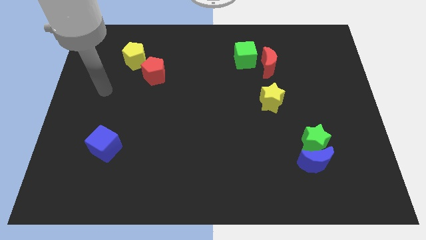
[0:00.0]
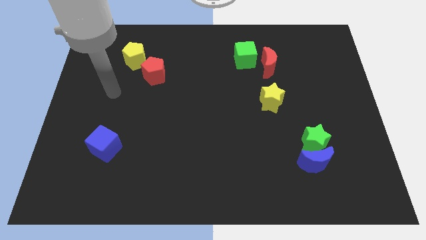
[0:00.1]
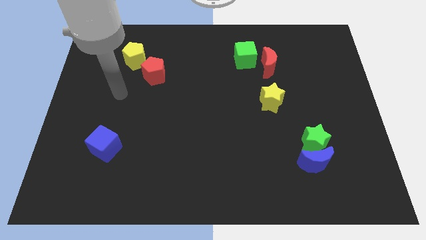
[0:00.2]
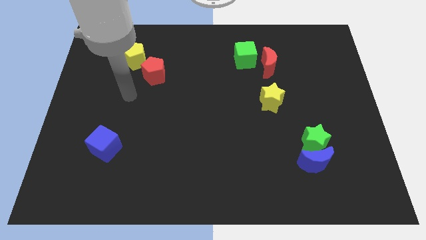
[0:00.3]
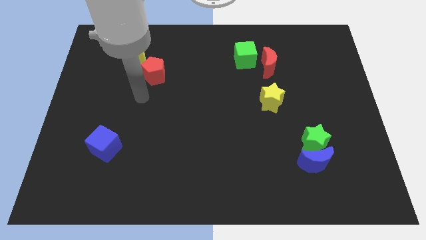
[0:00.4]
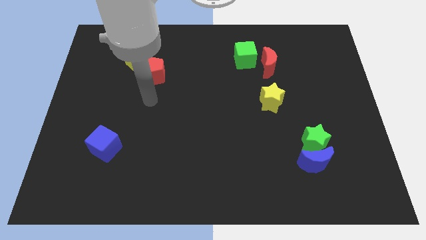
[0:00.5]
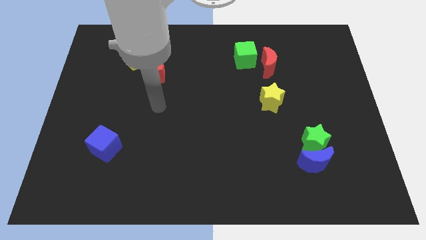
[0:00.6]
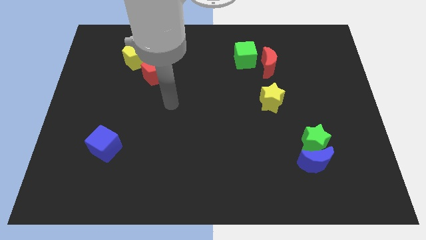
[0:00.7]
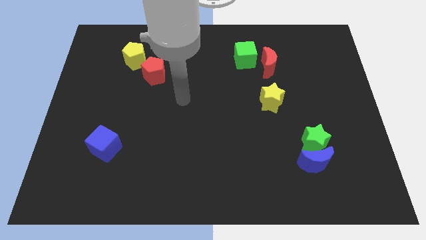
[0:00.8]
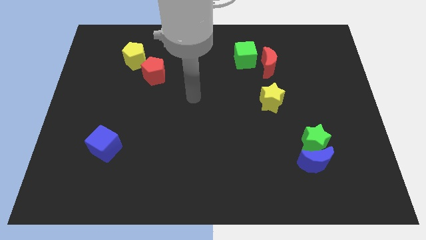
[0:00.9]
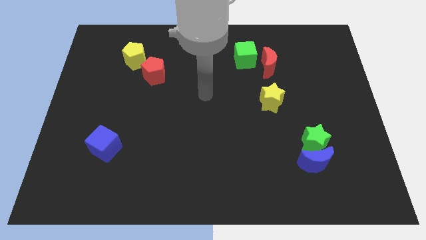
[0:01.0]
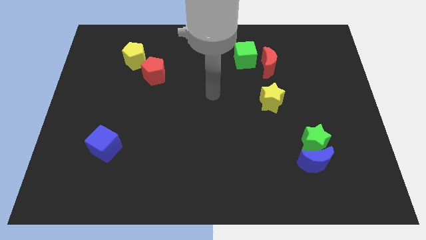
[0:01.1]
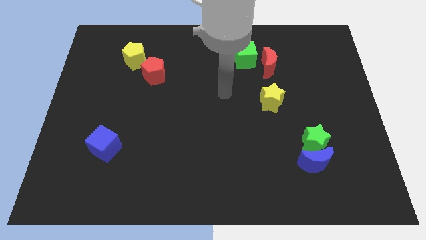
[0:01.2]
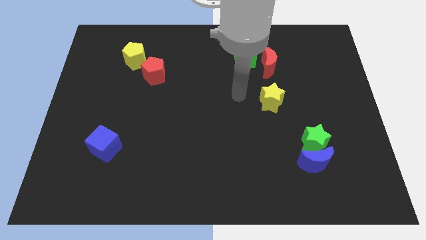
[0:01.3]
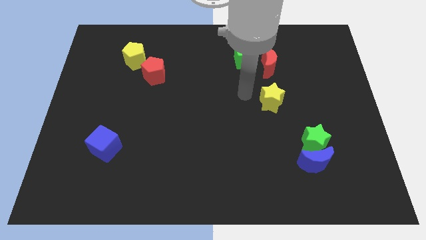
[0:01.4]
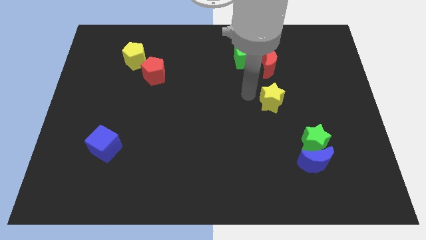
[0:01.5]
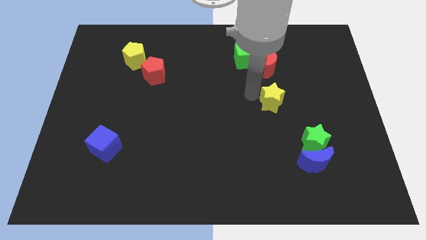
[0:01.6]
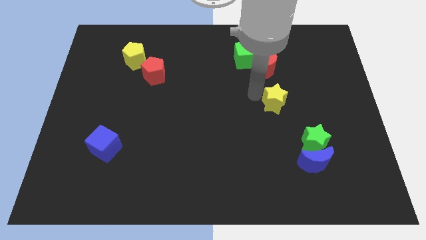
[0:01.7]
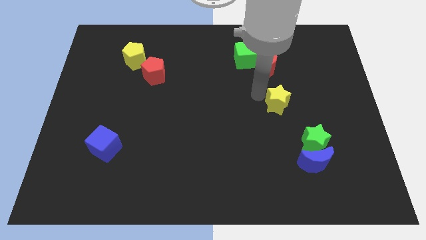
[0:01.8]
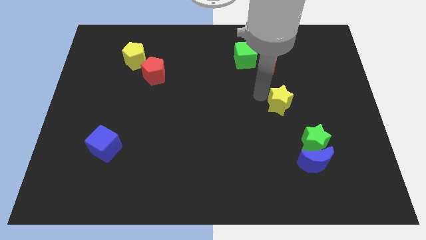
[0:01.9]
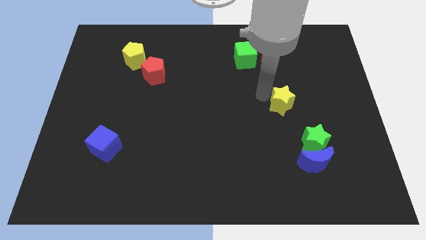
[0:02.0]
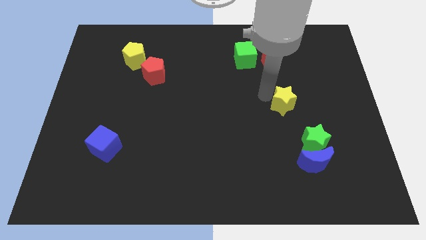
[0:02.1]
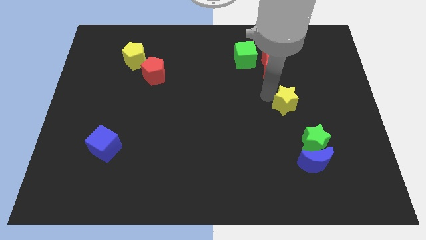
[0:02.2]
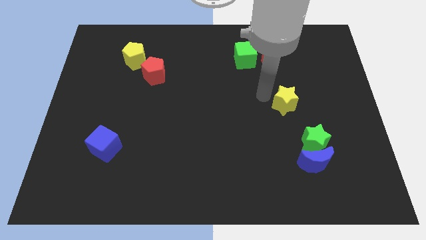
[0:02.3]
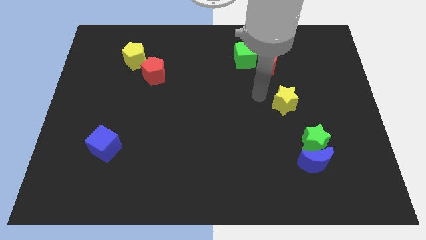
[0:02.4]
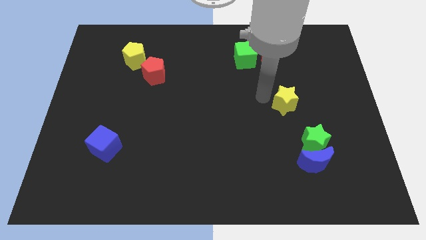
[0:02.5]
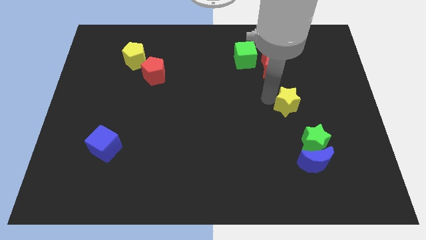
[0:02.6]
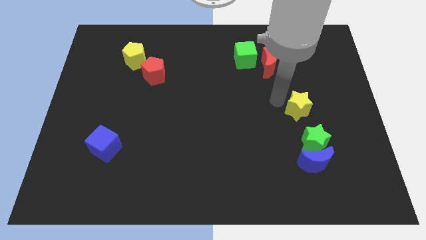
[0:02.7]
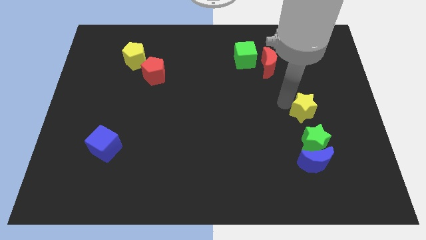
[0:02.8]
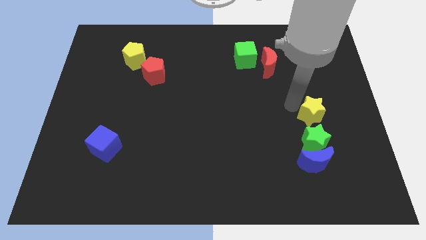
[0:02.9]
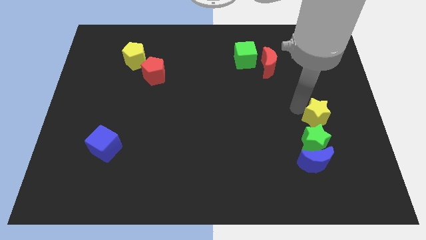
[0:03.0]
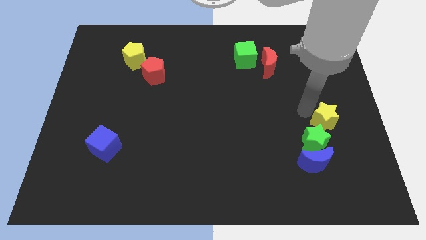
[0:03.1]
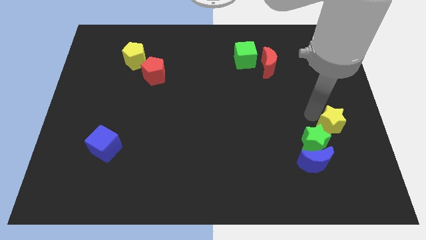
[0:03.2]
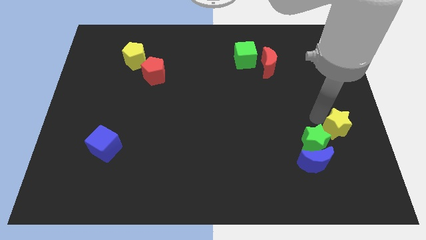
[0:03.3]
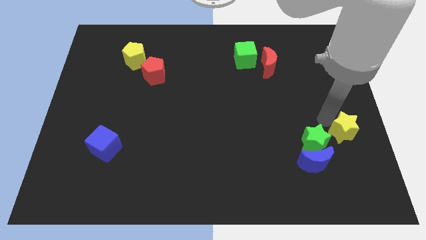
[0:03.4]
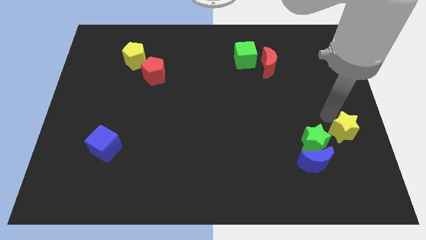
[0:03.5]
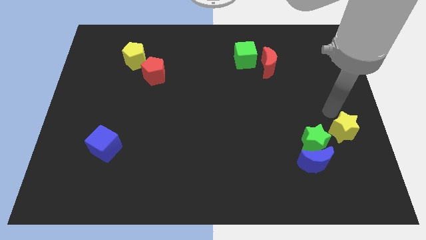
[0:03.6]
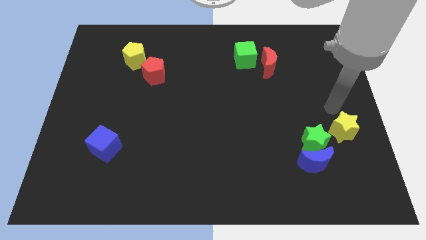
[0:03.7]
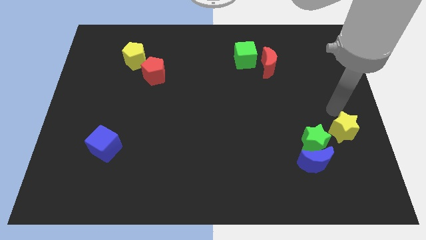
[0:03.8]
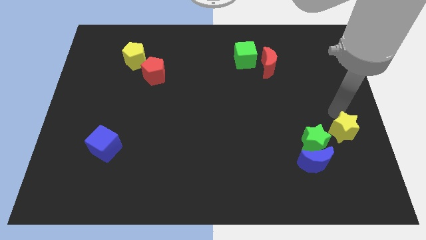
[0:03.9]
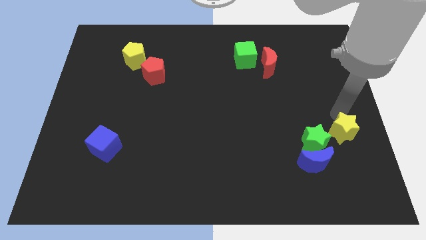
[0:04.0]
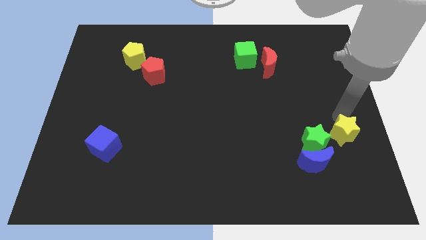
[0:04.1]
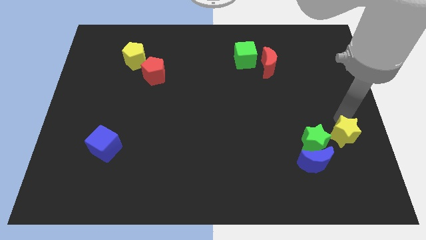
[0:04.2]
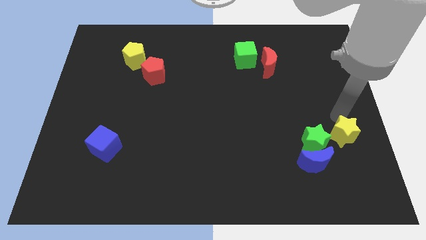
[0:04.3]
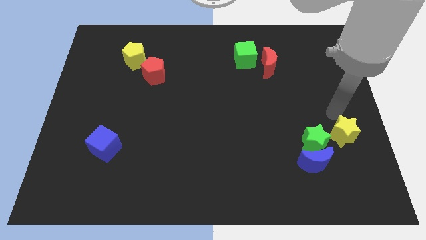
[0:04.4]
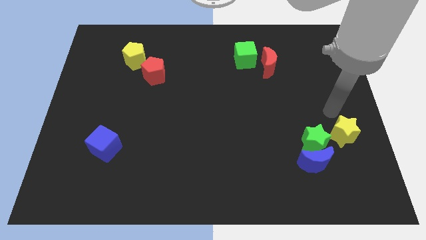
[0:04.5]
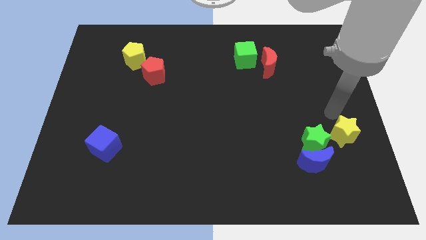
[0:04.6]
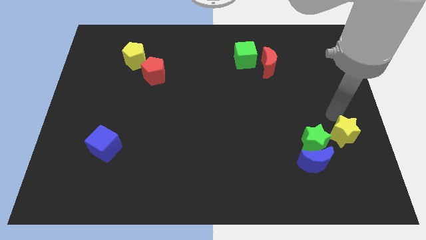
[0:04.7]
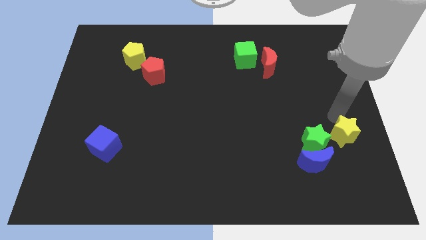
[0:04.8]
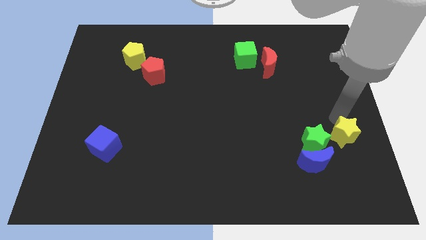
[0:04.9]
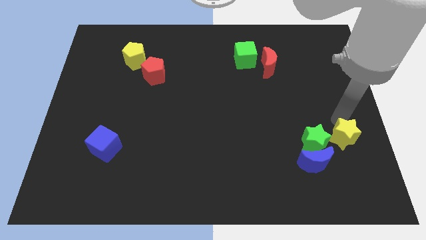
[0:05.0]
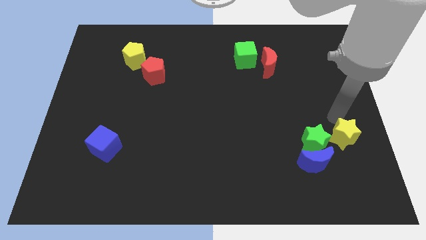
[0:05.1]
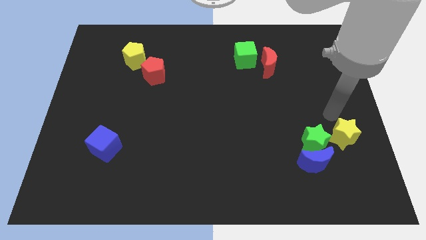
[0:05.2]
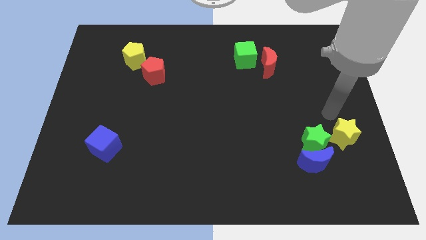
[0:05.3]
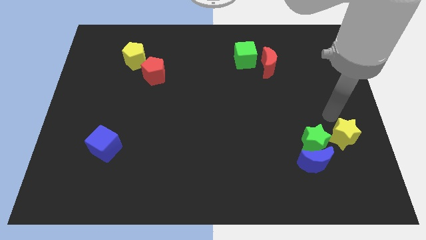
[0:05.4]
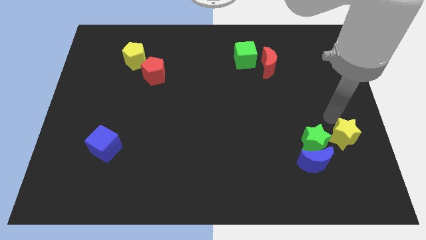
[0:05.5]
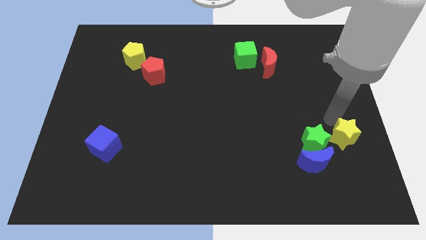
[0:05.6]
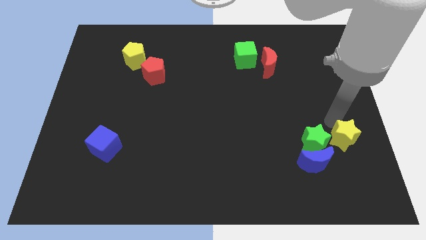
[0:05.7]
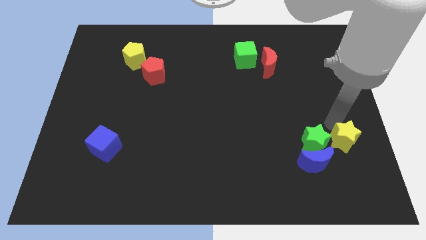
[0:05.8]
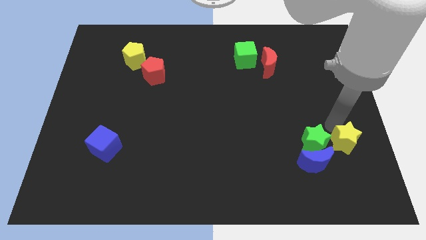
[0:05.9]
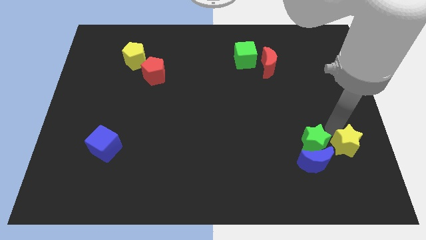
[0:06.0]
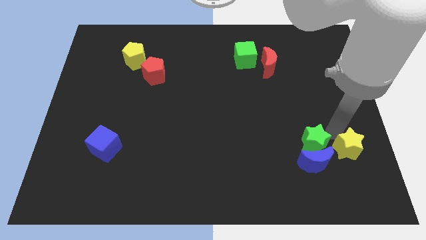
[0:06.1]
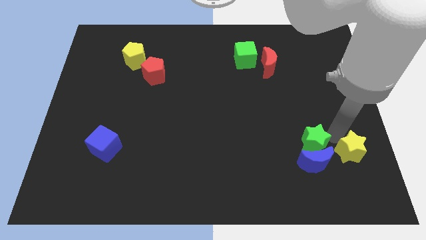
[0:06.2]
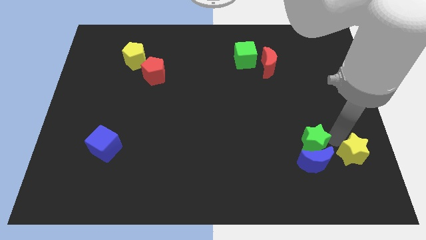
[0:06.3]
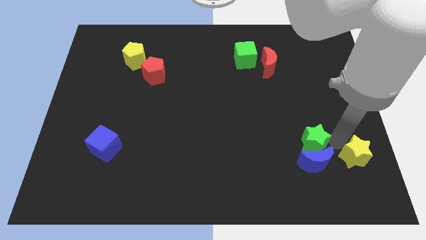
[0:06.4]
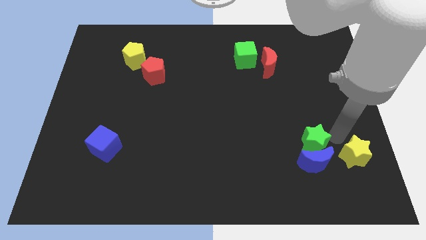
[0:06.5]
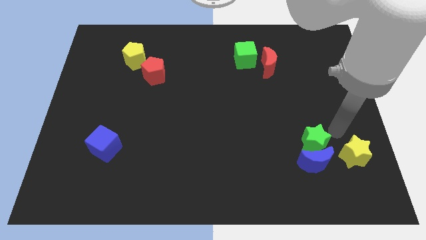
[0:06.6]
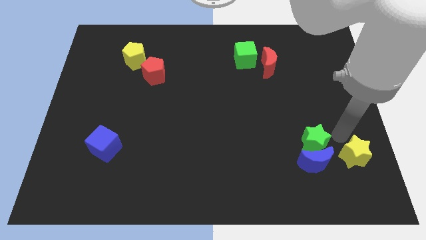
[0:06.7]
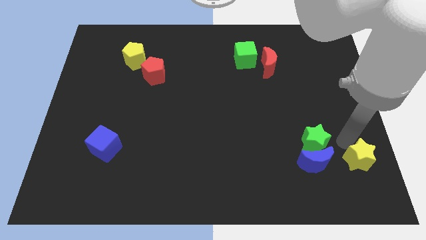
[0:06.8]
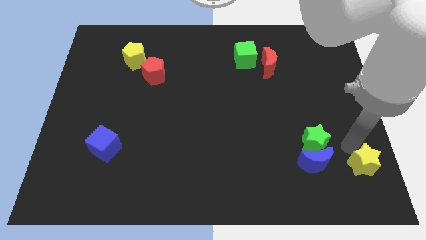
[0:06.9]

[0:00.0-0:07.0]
push the yellow star to the bottom right corner

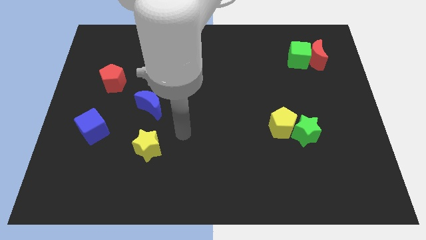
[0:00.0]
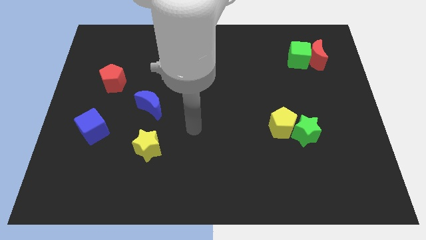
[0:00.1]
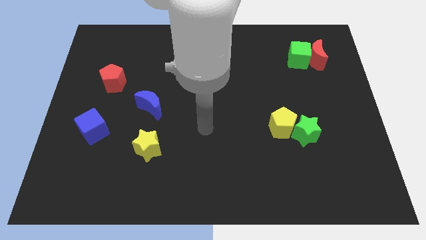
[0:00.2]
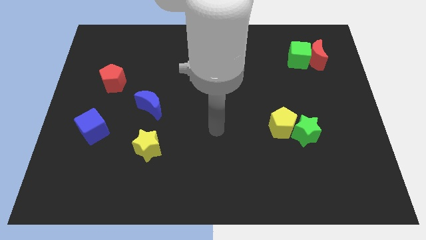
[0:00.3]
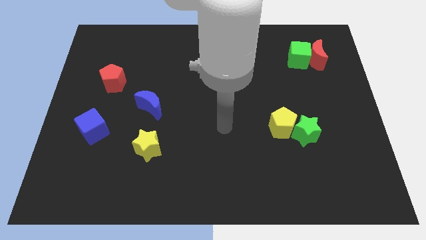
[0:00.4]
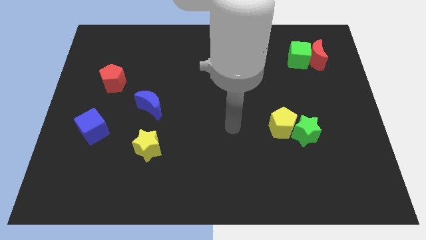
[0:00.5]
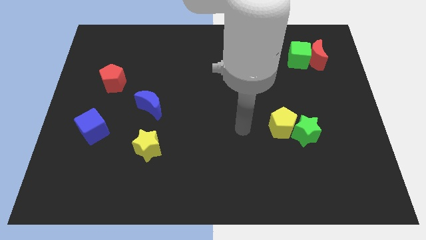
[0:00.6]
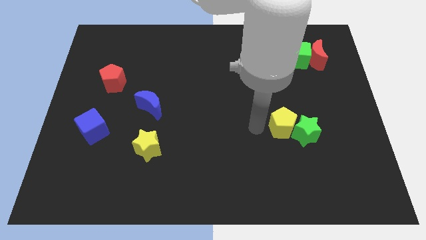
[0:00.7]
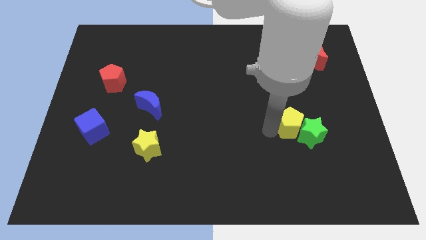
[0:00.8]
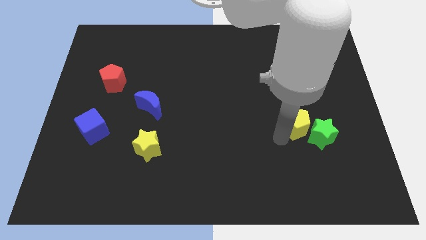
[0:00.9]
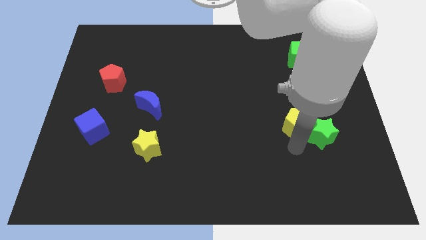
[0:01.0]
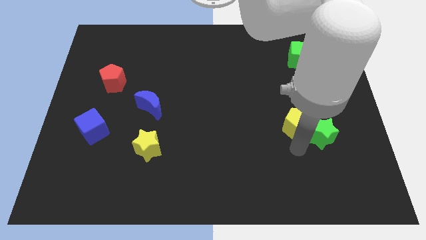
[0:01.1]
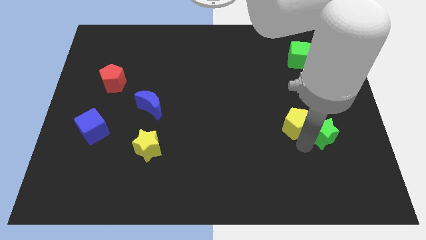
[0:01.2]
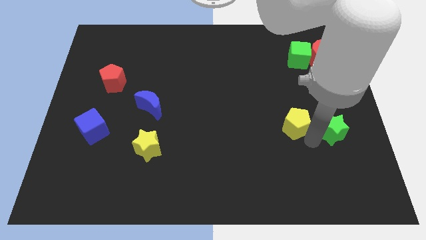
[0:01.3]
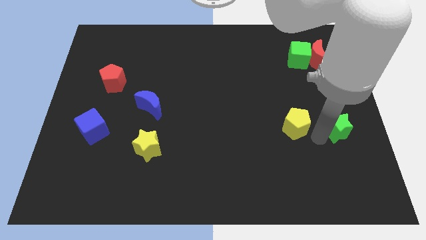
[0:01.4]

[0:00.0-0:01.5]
move the green star to the right side of the board
